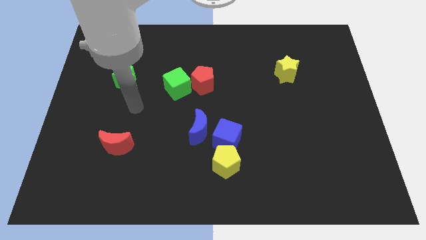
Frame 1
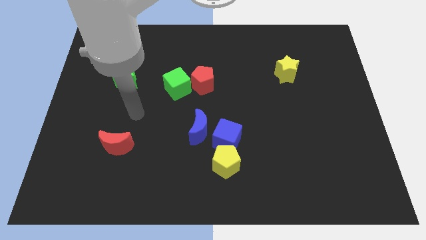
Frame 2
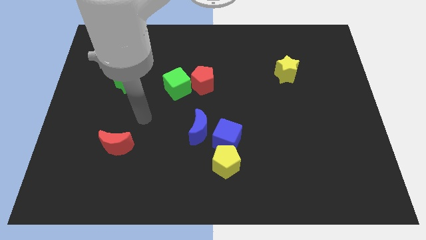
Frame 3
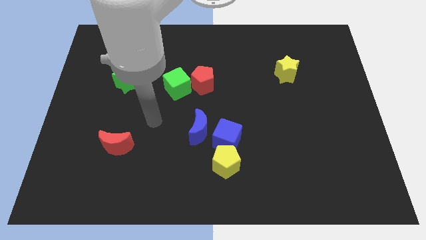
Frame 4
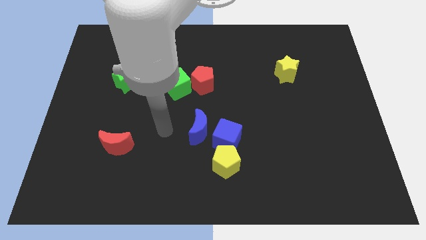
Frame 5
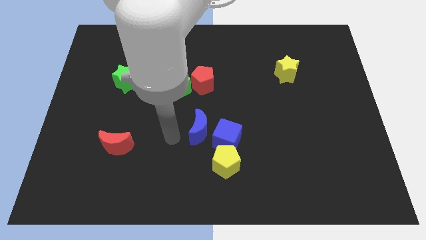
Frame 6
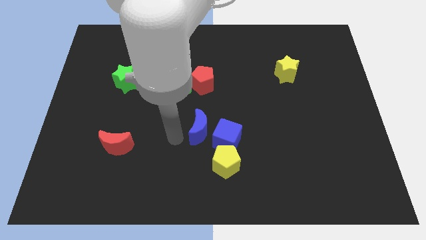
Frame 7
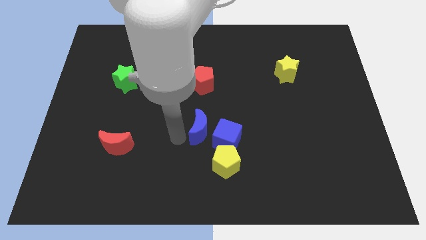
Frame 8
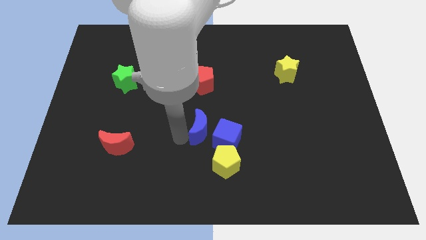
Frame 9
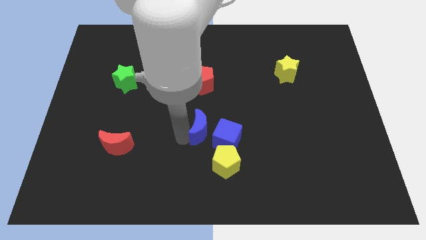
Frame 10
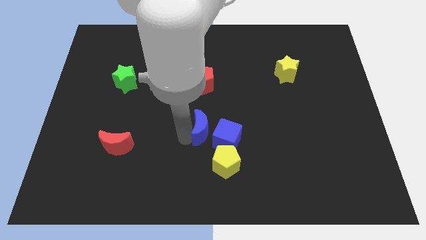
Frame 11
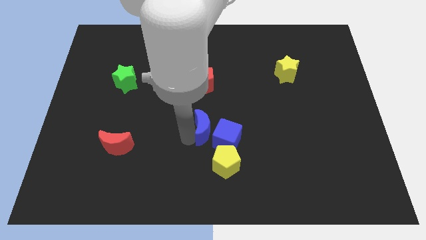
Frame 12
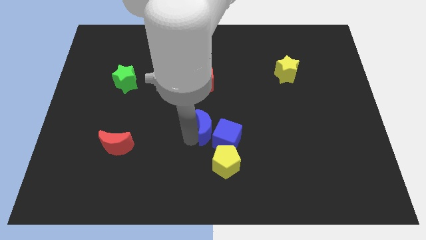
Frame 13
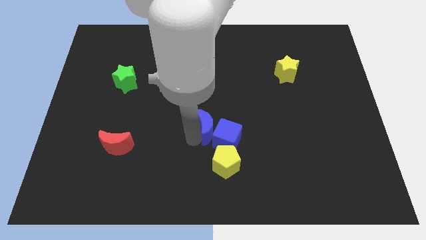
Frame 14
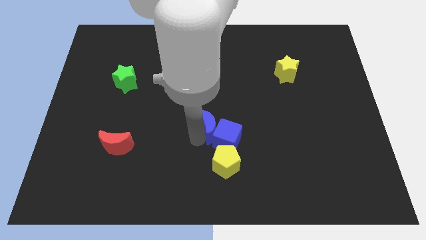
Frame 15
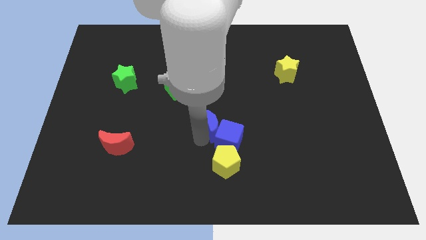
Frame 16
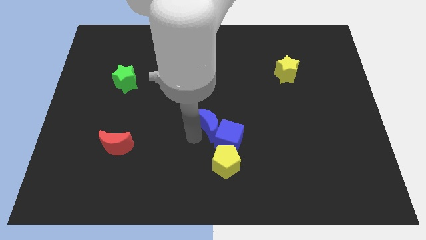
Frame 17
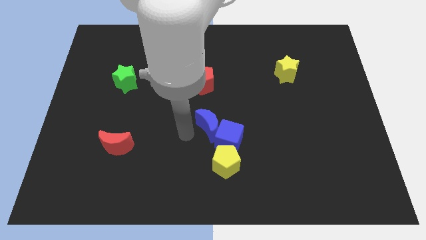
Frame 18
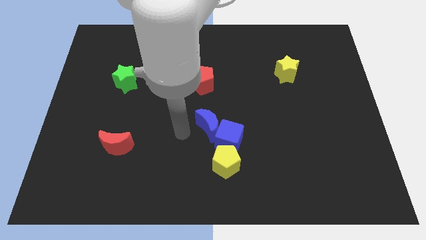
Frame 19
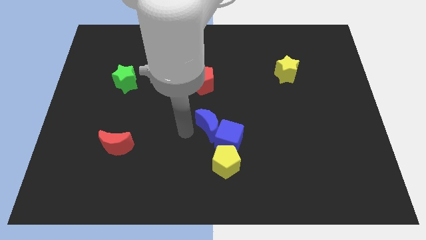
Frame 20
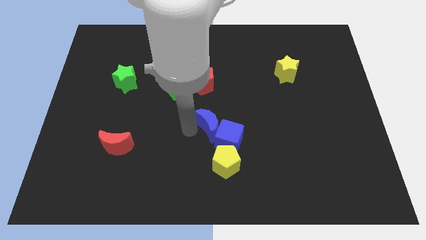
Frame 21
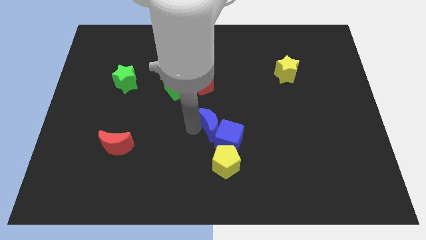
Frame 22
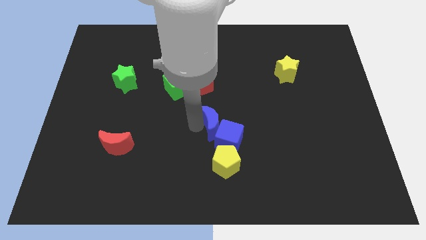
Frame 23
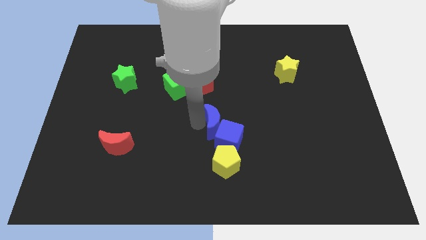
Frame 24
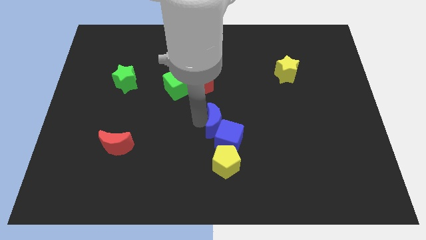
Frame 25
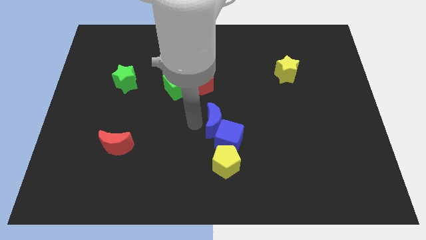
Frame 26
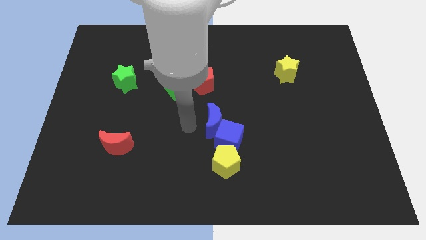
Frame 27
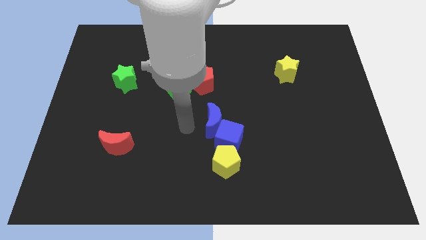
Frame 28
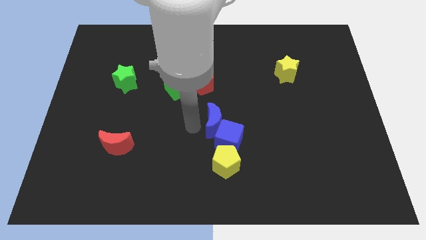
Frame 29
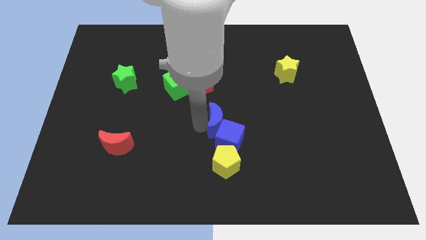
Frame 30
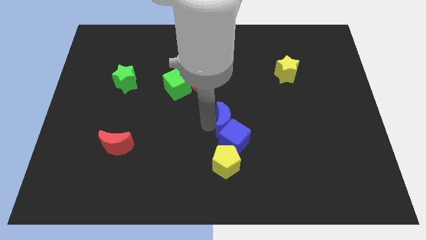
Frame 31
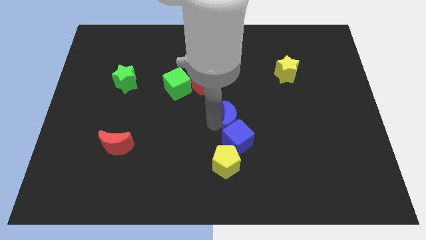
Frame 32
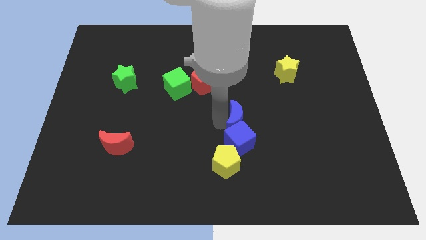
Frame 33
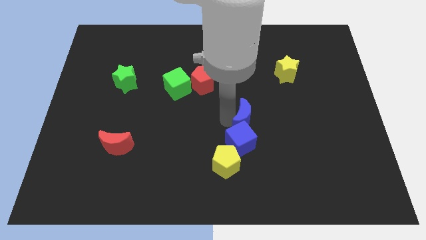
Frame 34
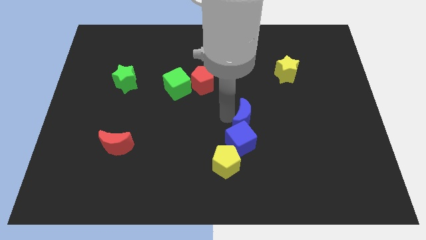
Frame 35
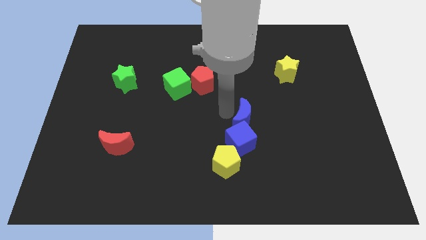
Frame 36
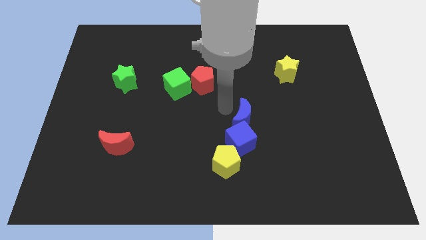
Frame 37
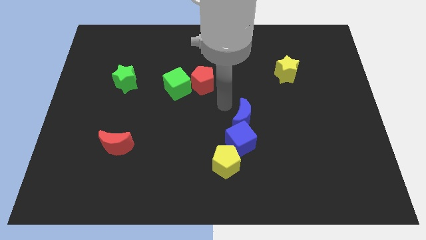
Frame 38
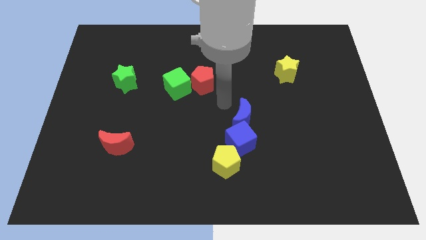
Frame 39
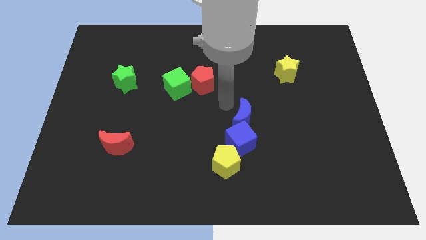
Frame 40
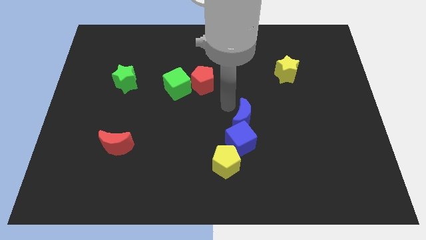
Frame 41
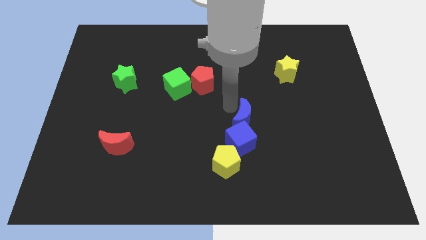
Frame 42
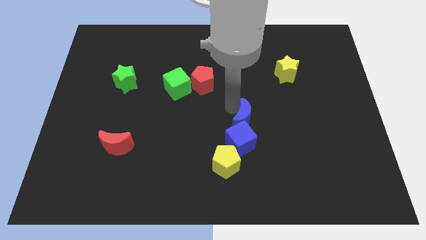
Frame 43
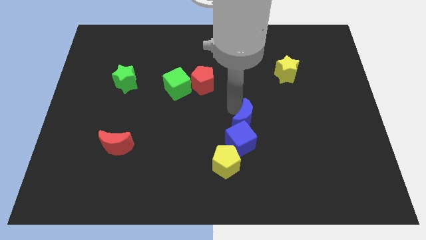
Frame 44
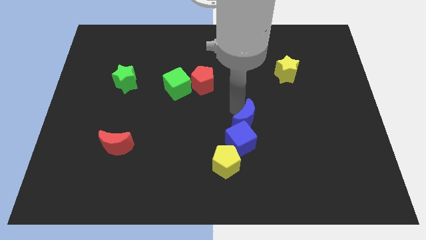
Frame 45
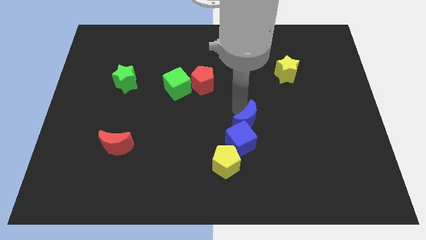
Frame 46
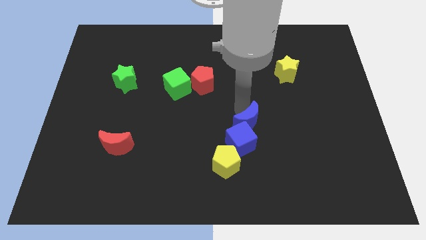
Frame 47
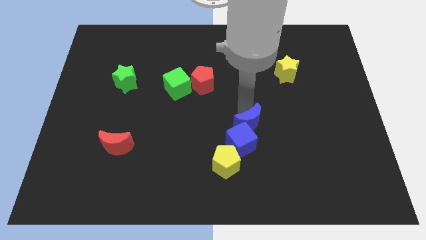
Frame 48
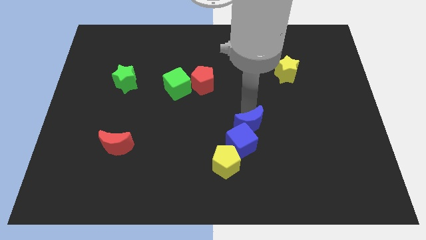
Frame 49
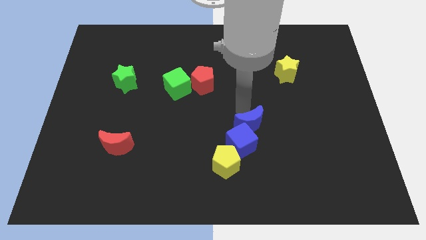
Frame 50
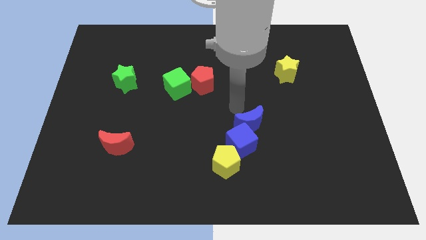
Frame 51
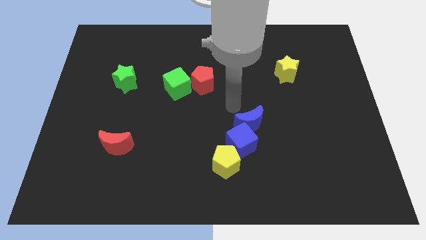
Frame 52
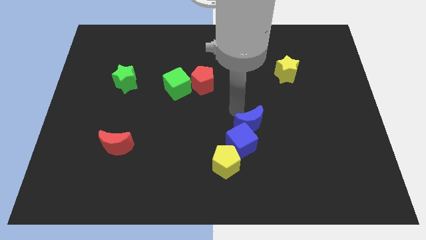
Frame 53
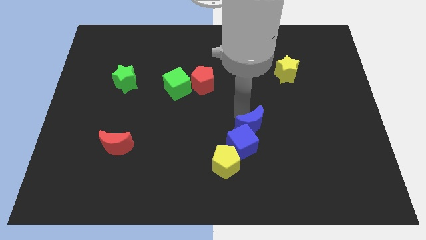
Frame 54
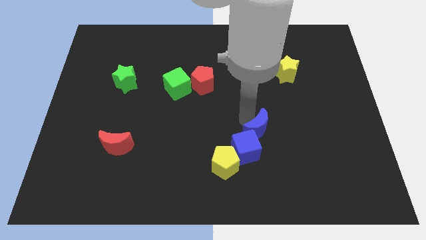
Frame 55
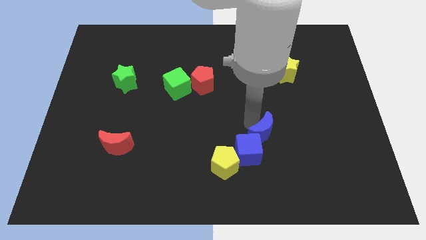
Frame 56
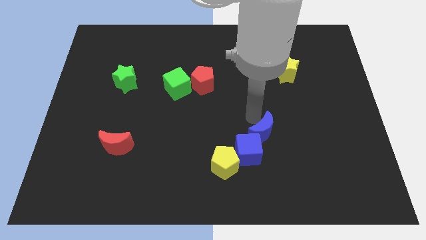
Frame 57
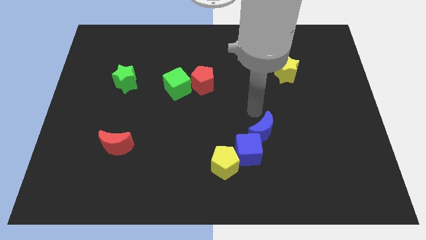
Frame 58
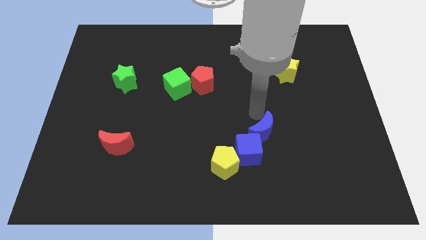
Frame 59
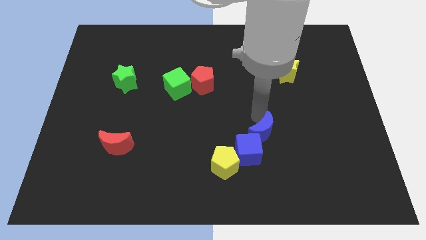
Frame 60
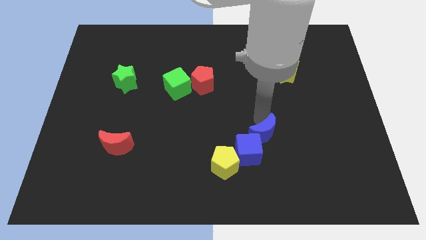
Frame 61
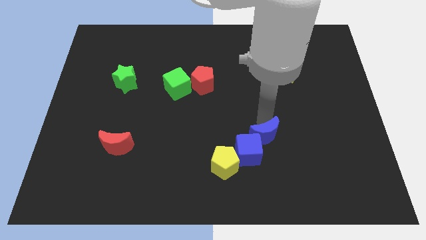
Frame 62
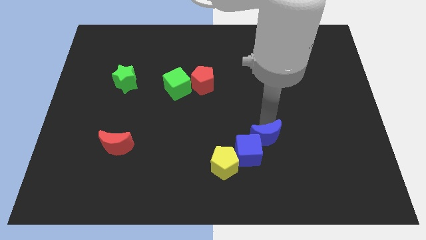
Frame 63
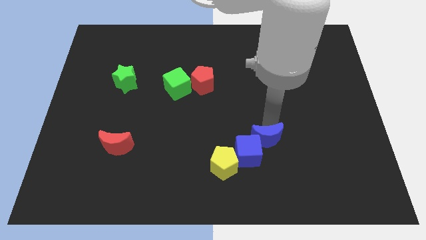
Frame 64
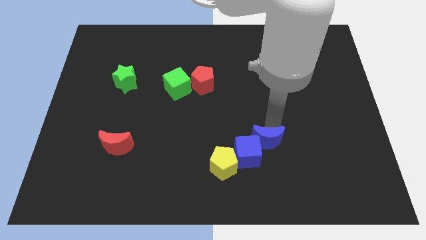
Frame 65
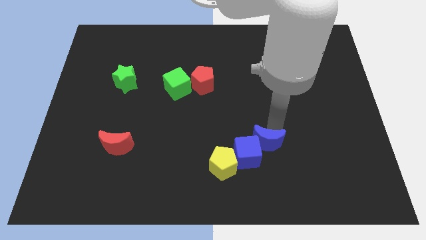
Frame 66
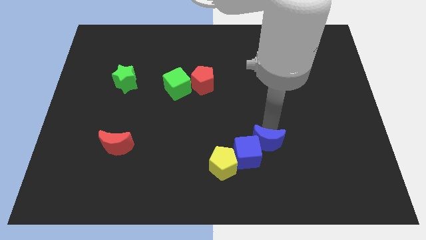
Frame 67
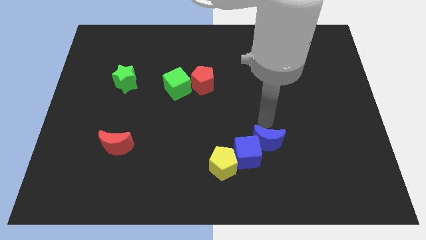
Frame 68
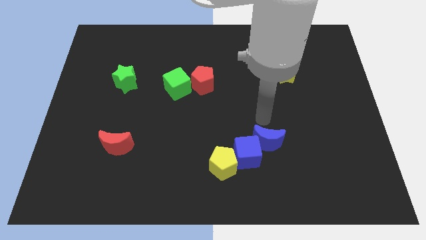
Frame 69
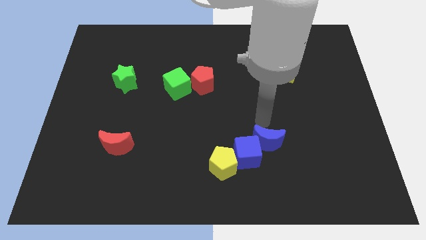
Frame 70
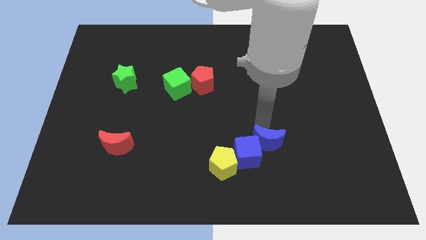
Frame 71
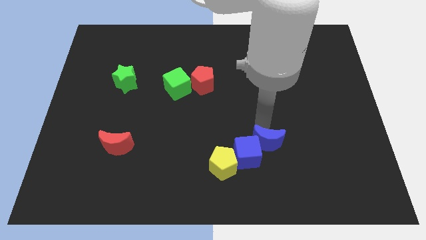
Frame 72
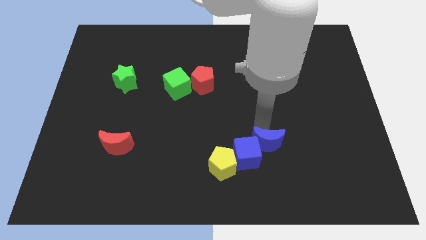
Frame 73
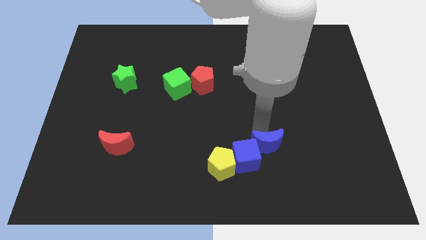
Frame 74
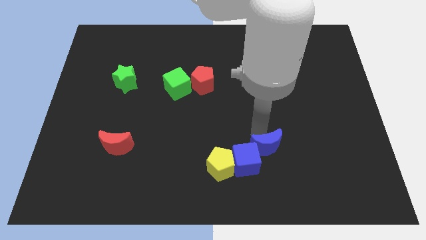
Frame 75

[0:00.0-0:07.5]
slide the blue moon to the right side of the yellow pentagon
